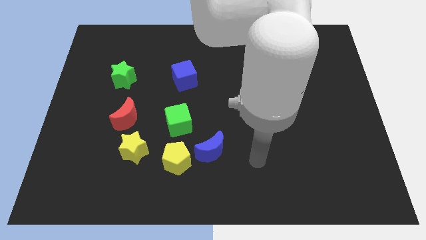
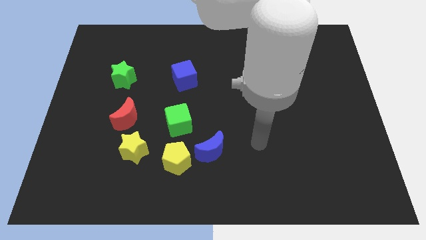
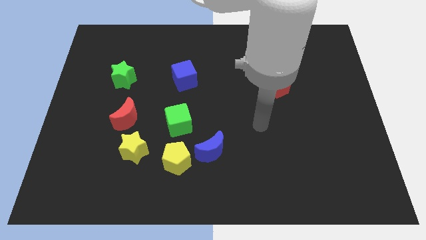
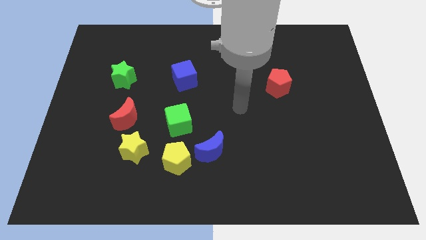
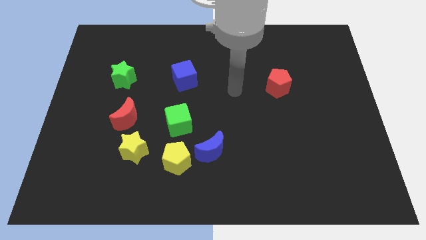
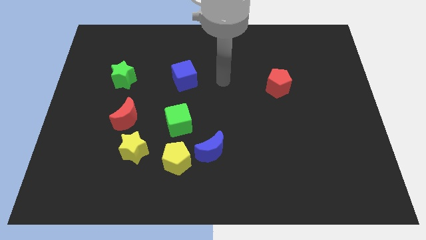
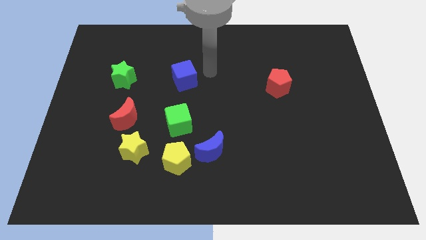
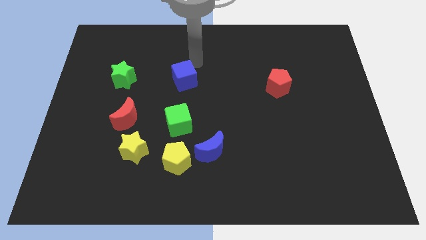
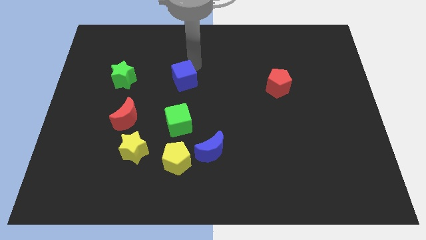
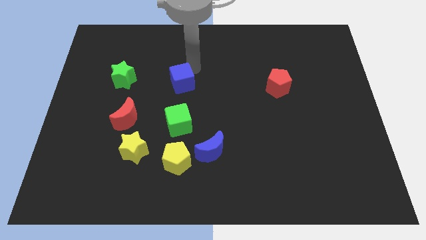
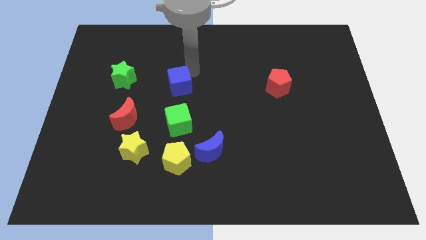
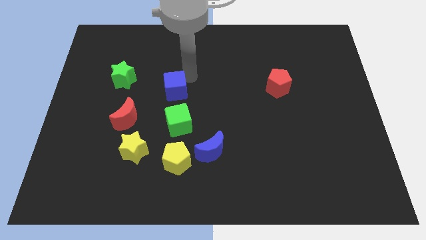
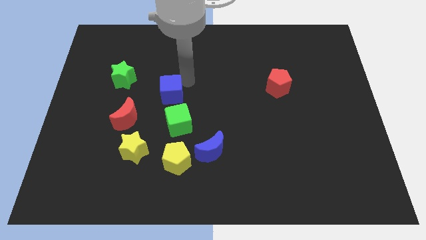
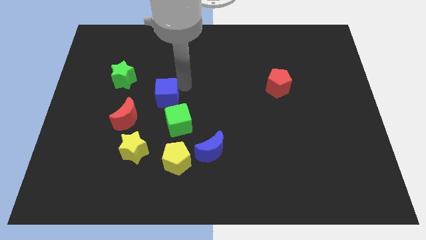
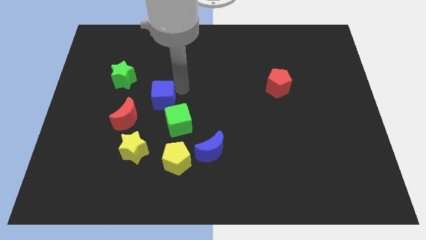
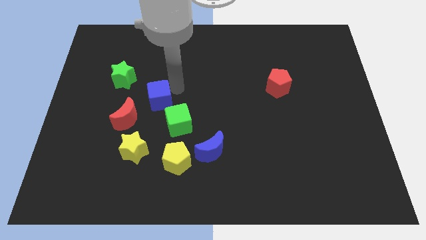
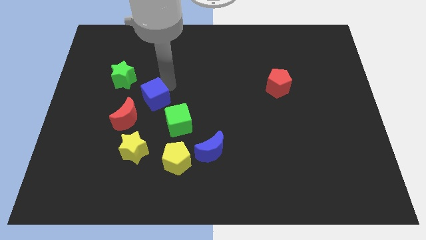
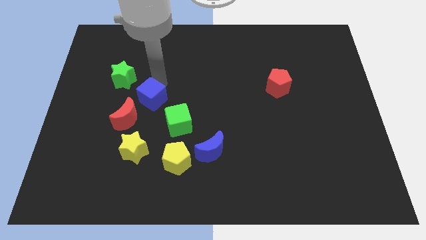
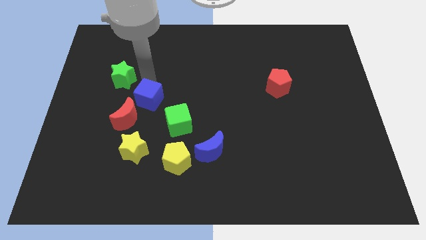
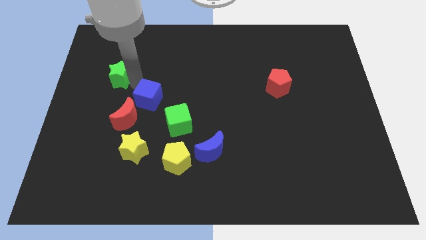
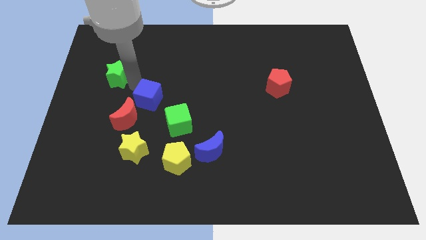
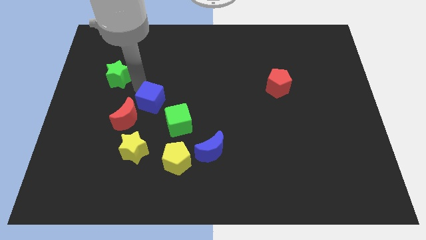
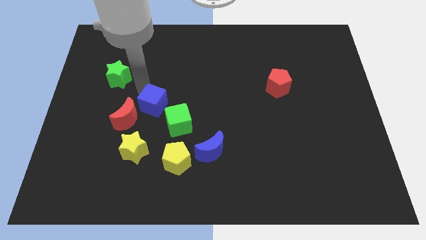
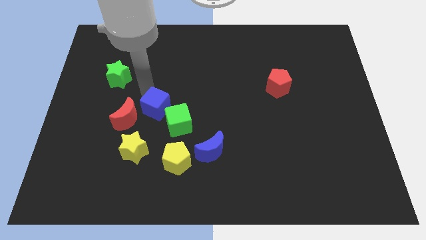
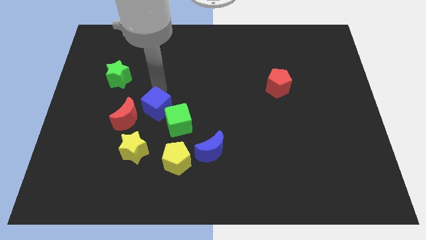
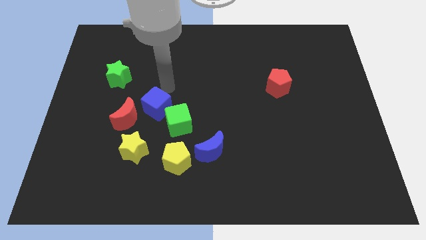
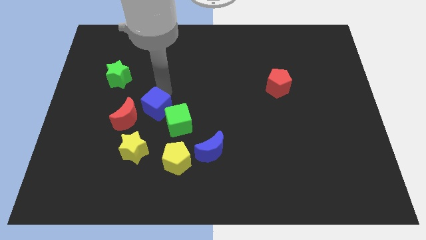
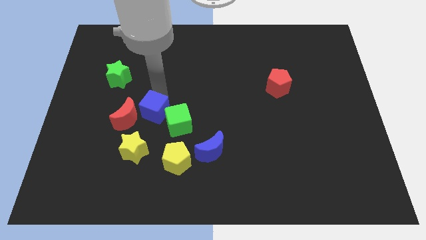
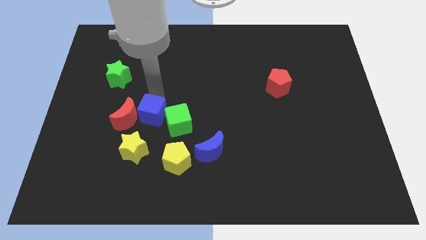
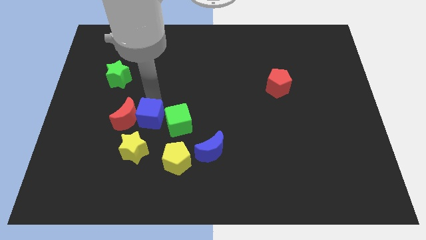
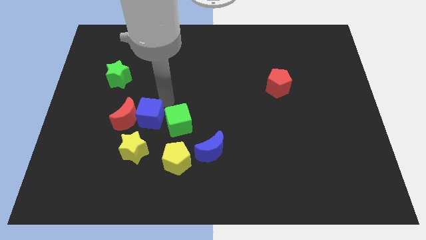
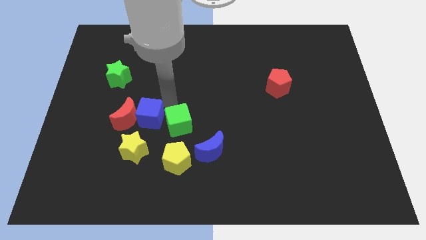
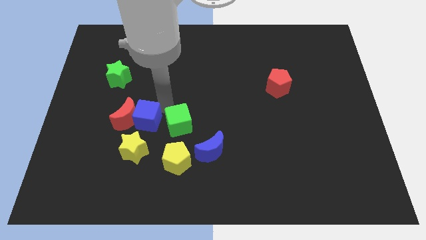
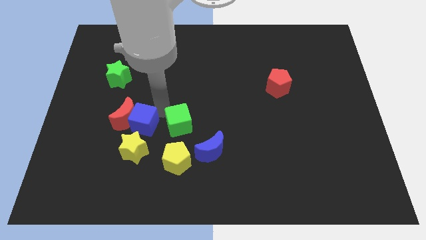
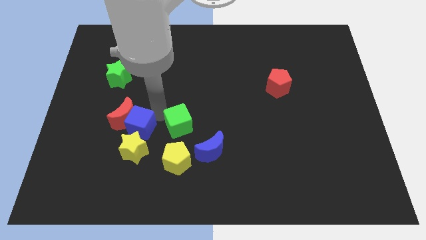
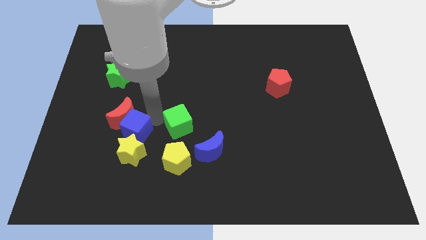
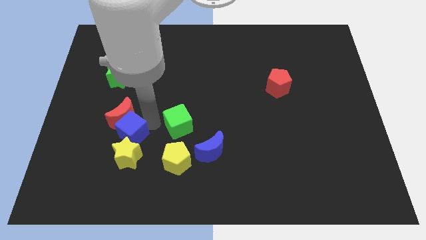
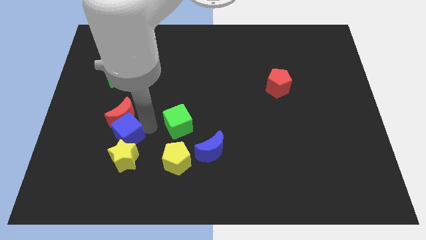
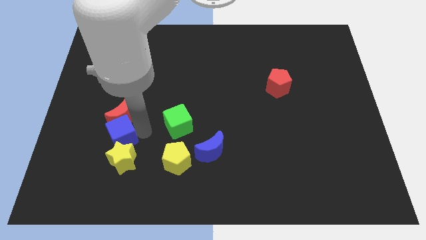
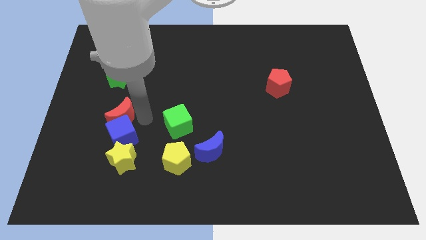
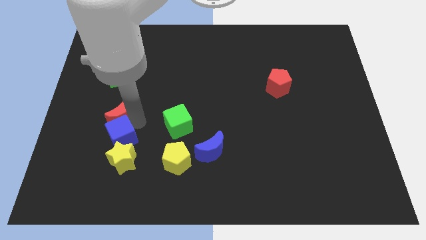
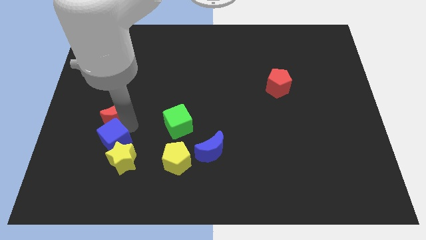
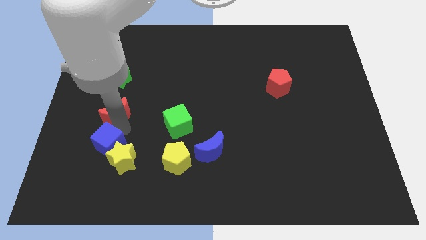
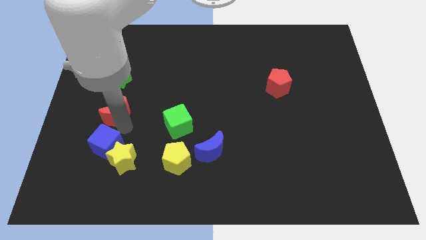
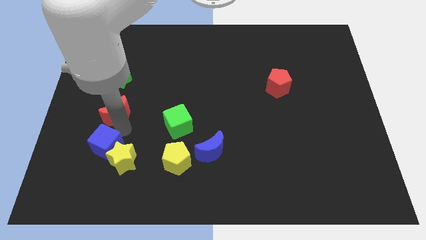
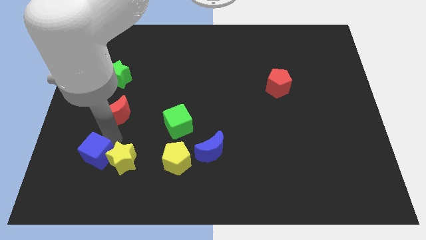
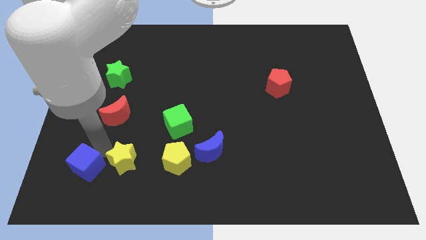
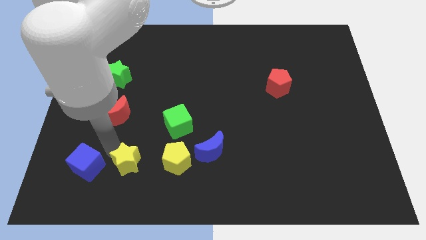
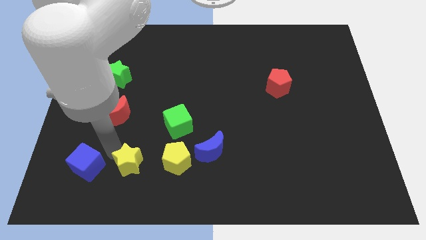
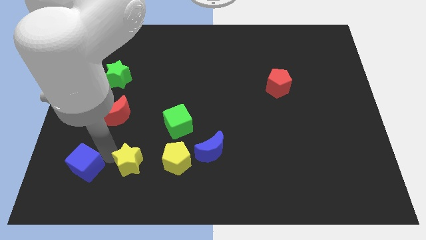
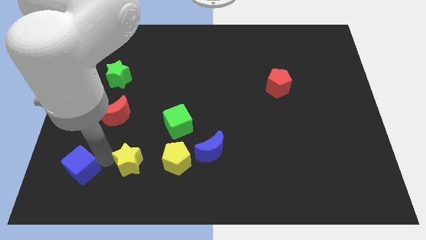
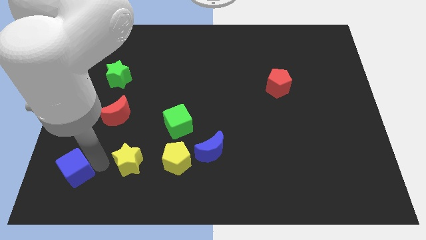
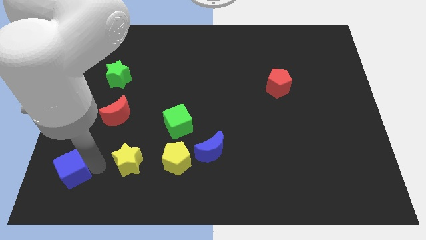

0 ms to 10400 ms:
put the blue cube to the bottom left corner

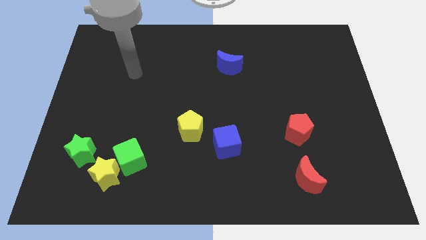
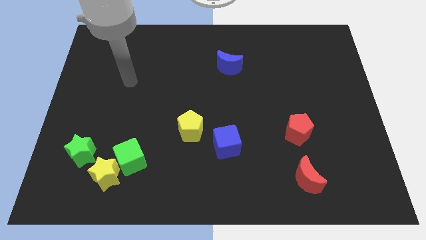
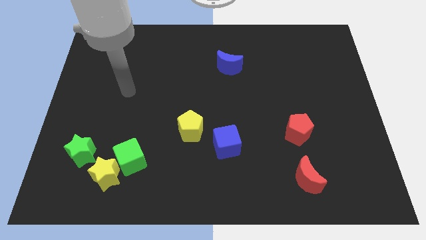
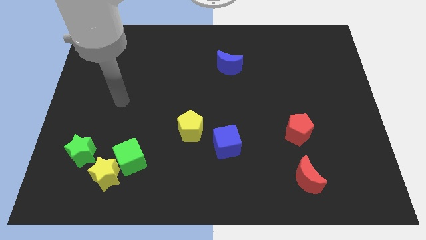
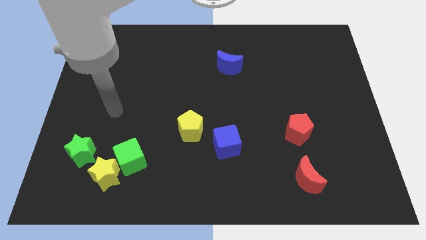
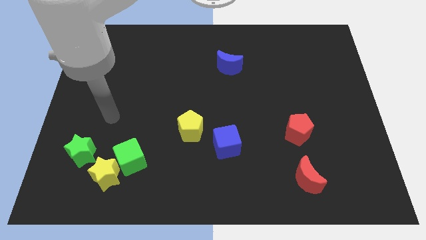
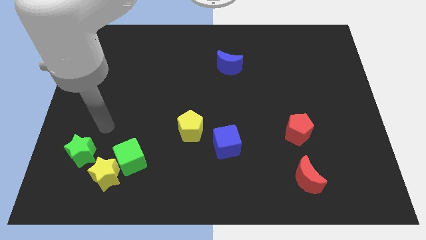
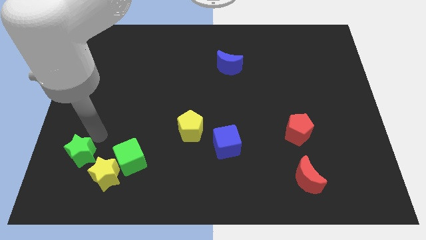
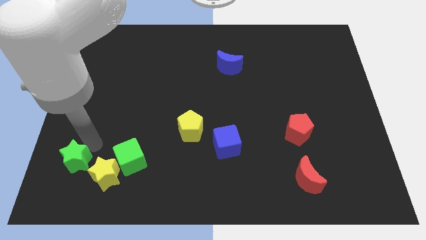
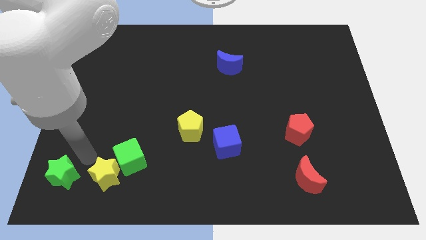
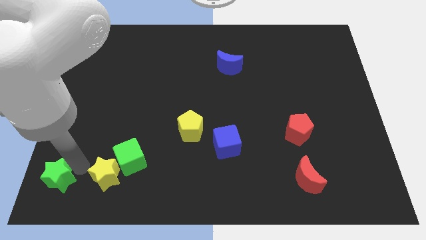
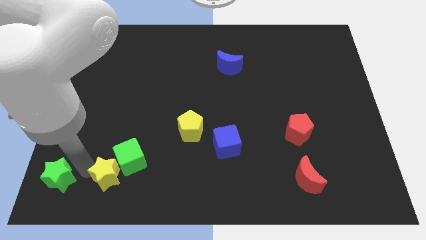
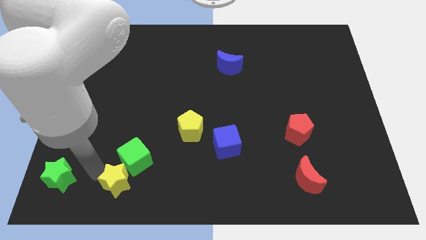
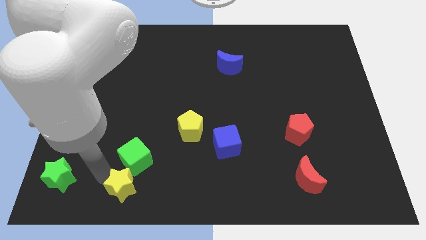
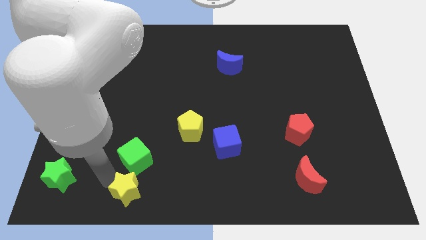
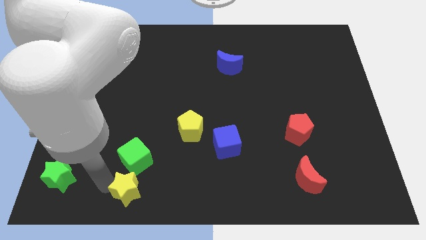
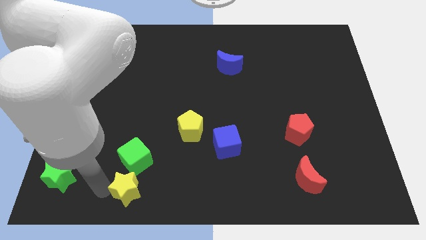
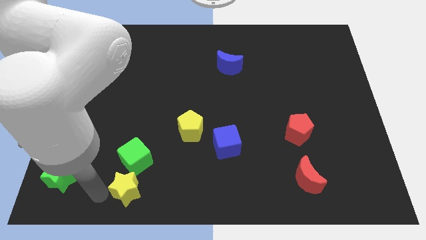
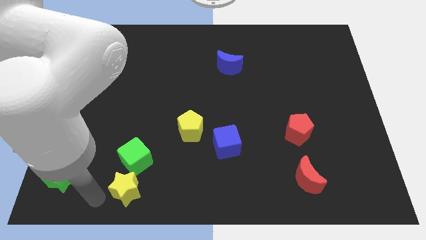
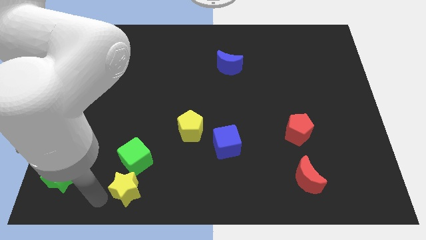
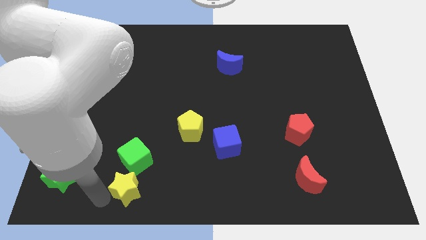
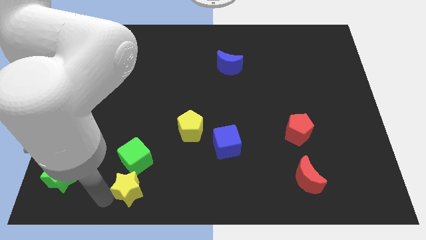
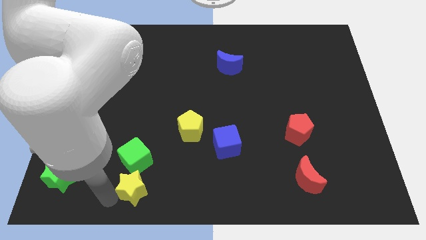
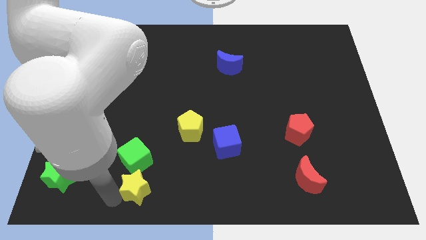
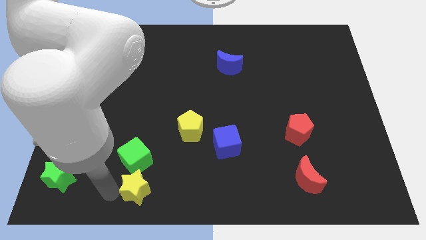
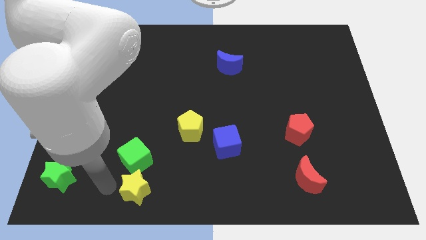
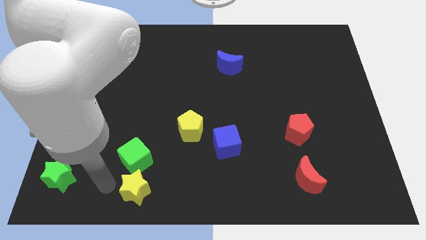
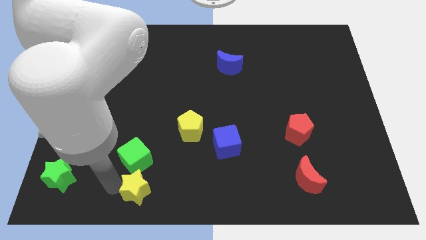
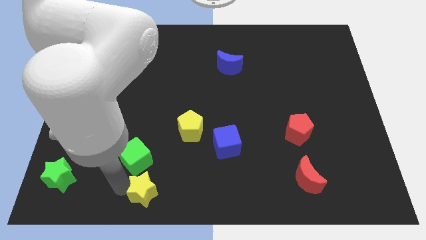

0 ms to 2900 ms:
put the yellow star to the bottom
